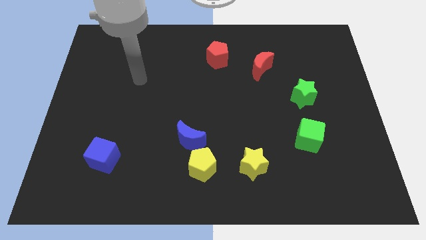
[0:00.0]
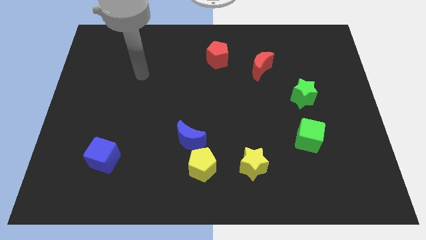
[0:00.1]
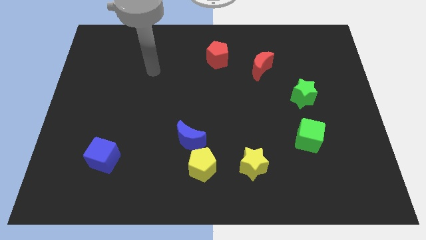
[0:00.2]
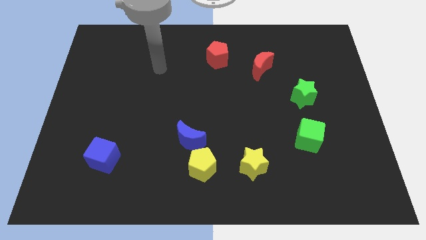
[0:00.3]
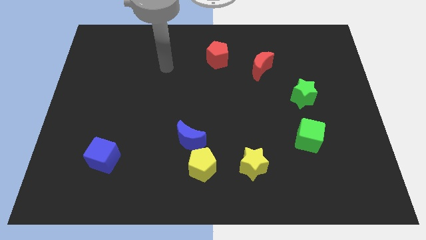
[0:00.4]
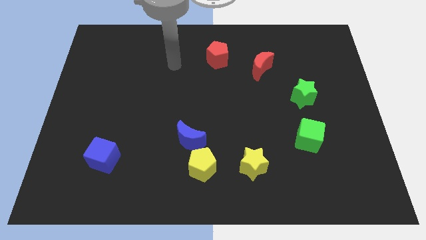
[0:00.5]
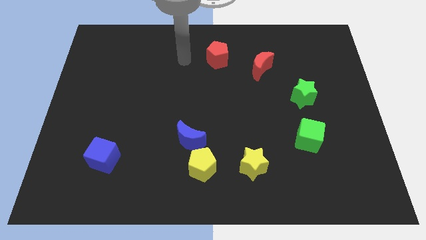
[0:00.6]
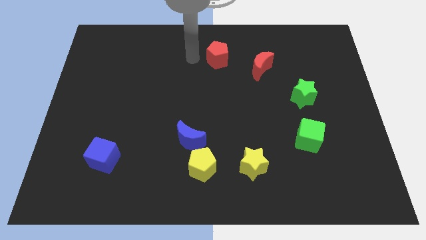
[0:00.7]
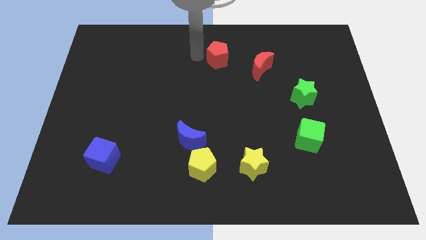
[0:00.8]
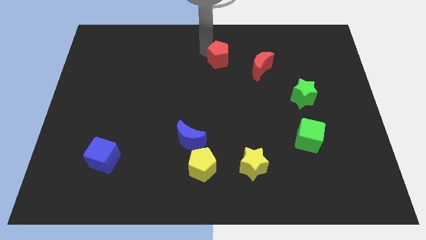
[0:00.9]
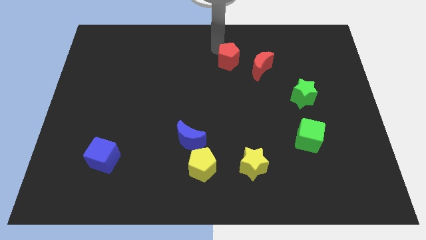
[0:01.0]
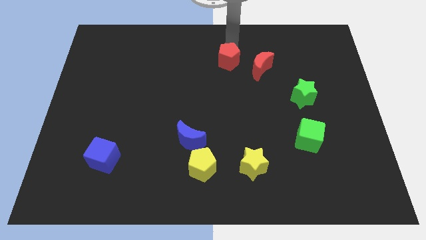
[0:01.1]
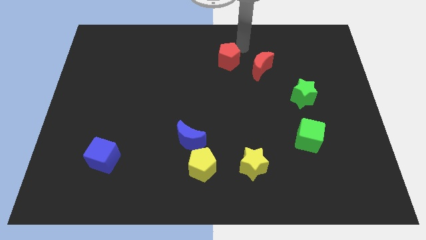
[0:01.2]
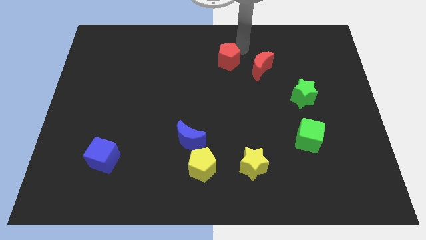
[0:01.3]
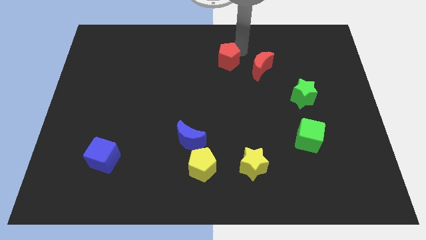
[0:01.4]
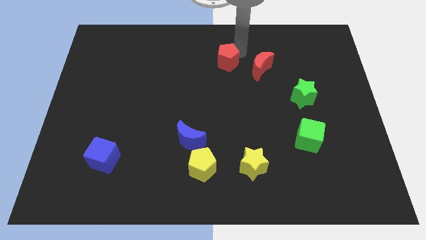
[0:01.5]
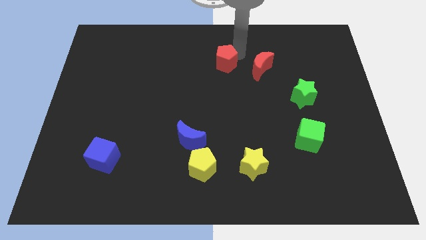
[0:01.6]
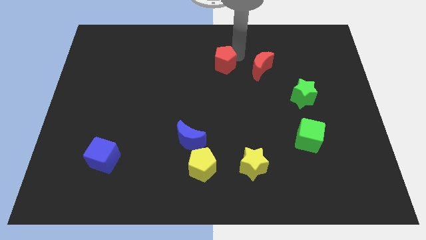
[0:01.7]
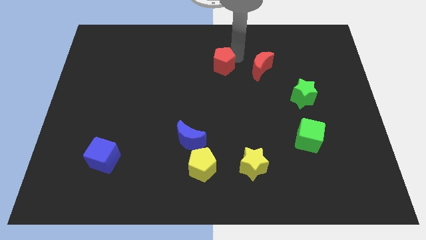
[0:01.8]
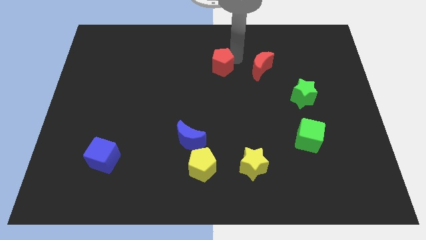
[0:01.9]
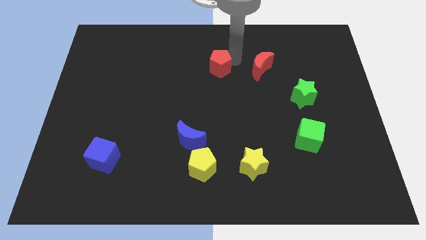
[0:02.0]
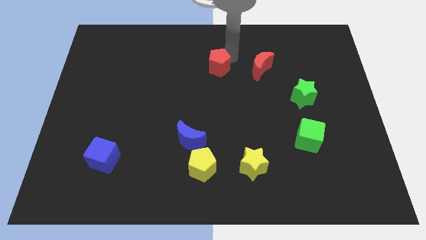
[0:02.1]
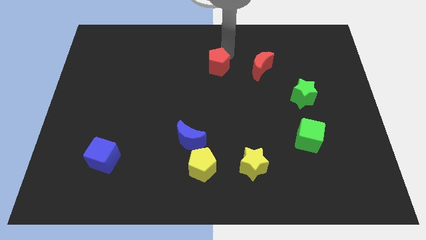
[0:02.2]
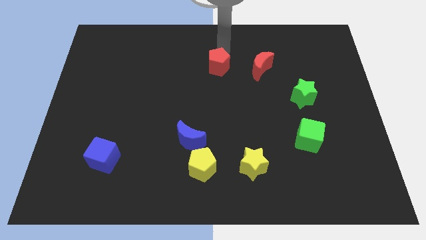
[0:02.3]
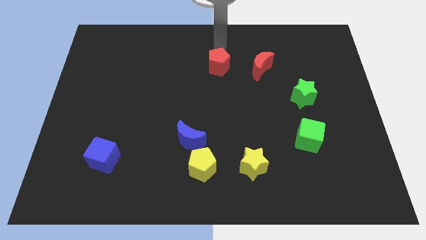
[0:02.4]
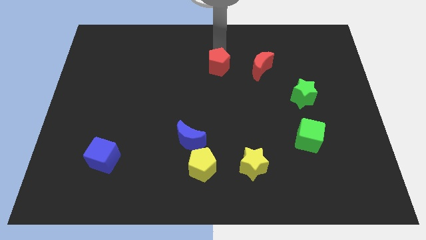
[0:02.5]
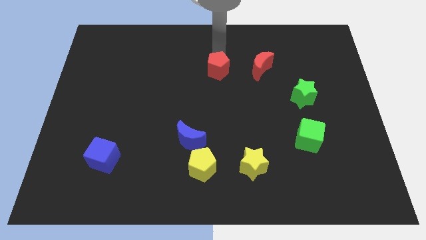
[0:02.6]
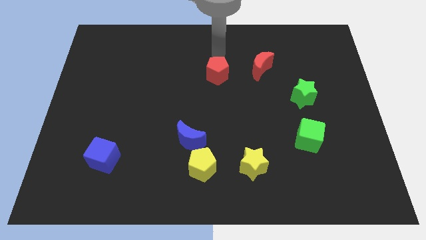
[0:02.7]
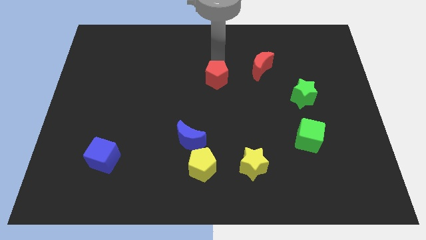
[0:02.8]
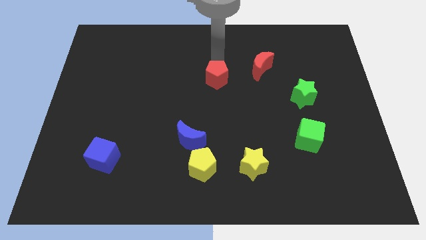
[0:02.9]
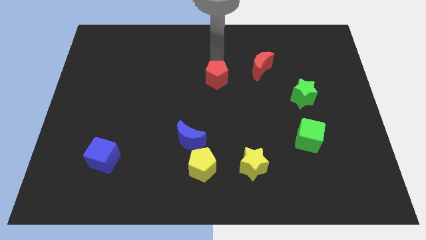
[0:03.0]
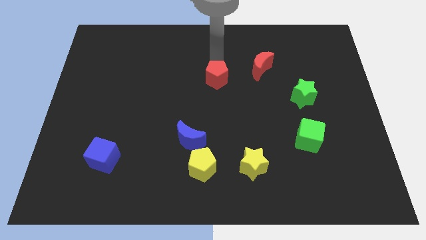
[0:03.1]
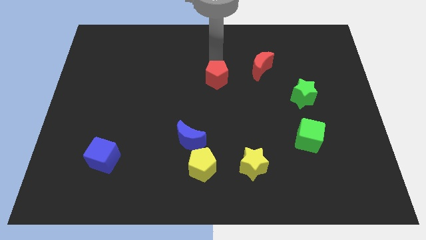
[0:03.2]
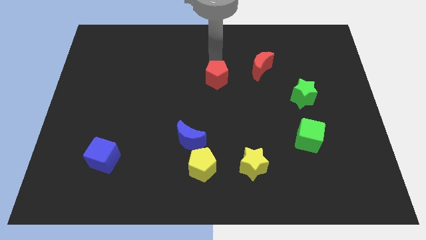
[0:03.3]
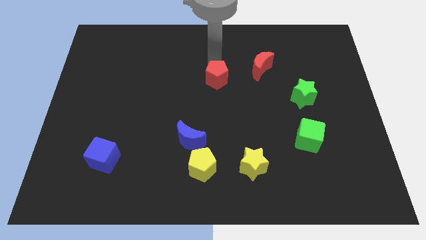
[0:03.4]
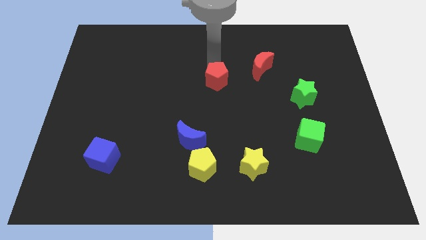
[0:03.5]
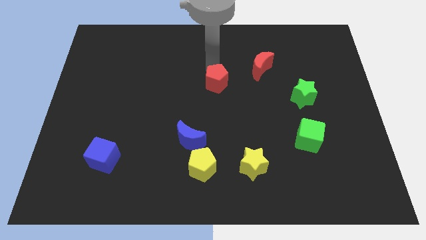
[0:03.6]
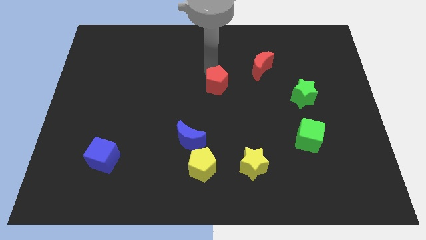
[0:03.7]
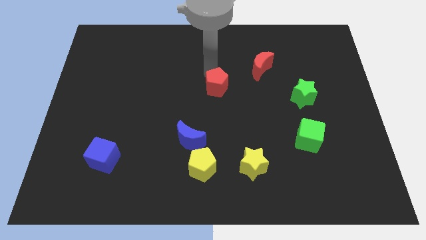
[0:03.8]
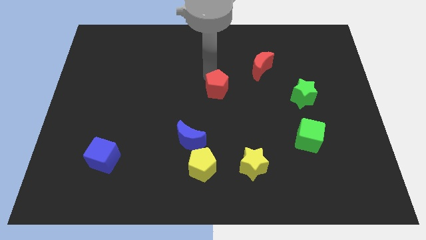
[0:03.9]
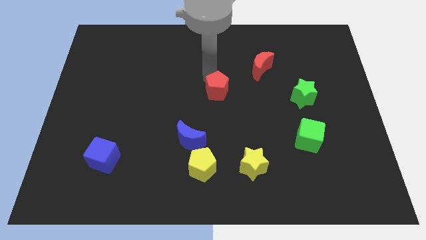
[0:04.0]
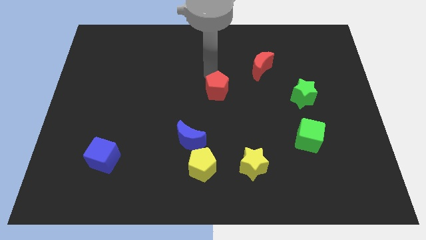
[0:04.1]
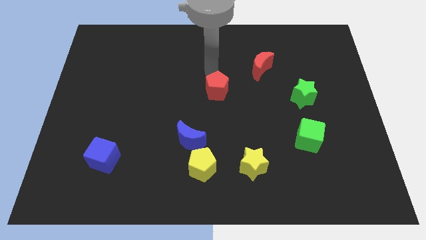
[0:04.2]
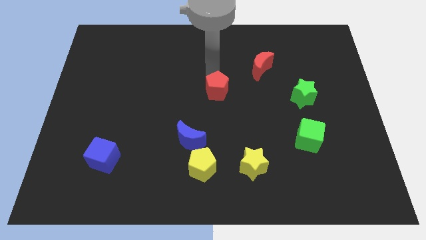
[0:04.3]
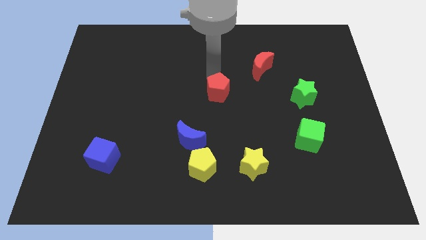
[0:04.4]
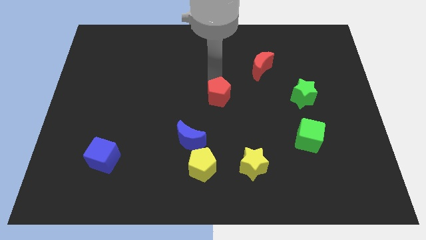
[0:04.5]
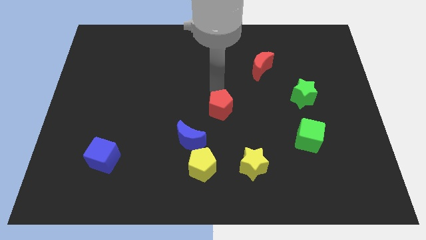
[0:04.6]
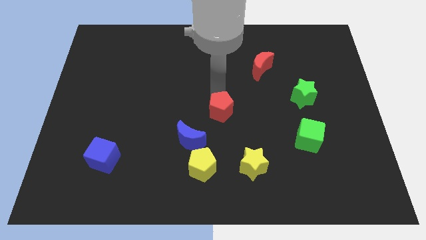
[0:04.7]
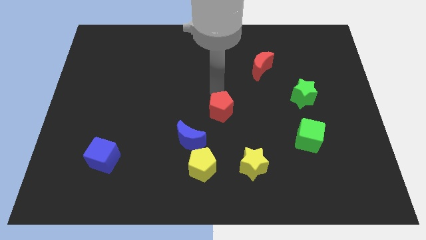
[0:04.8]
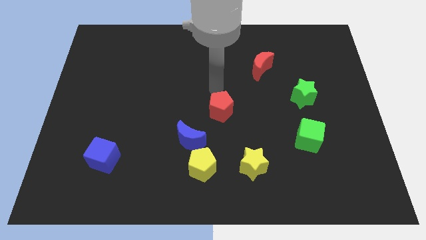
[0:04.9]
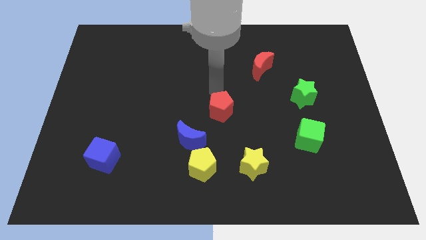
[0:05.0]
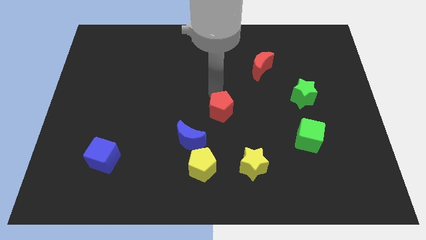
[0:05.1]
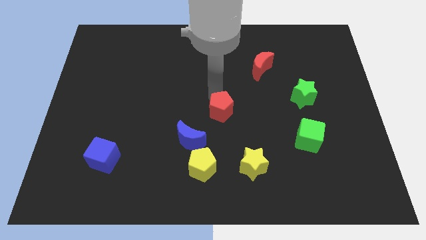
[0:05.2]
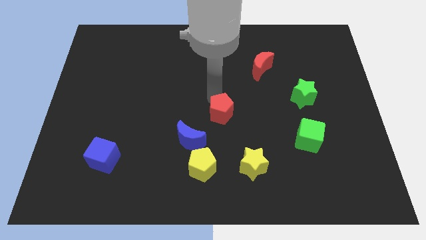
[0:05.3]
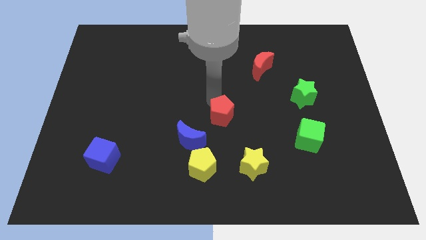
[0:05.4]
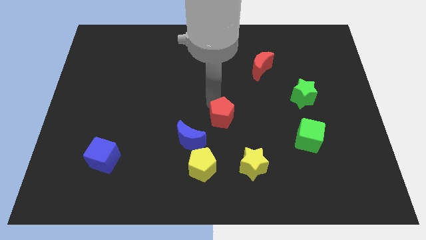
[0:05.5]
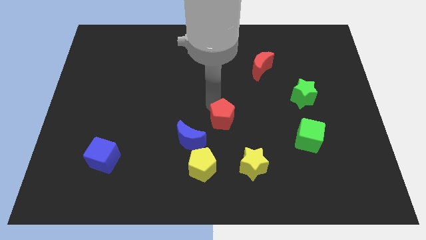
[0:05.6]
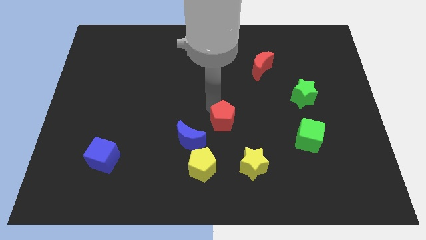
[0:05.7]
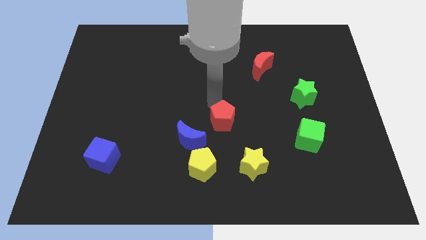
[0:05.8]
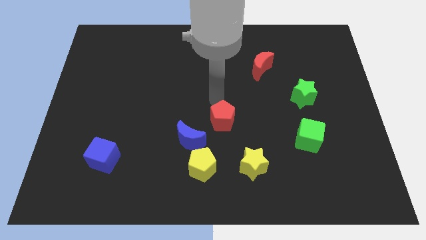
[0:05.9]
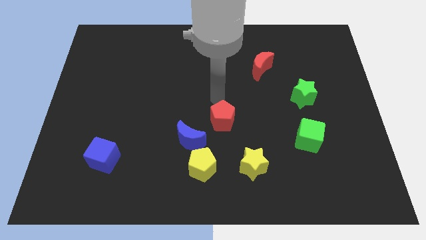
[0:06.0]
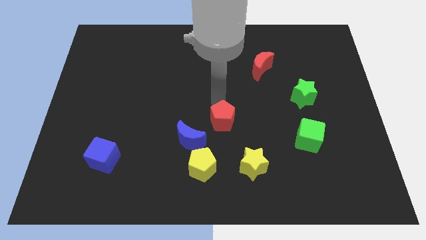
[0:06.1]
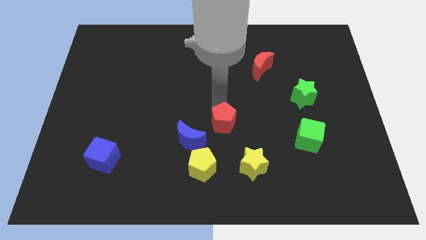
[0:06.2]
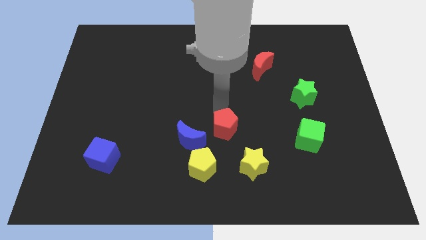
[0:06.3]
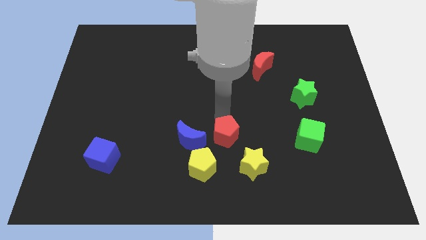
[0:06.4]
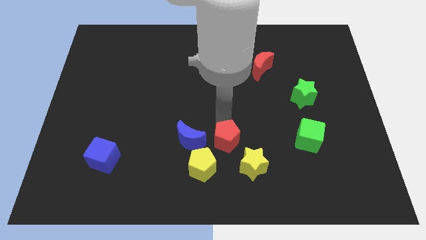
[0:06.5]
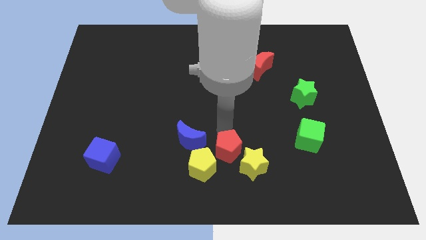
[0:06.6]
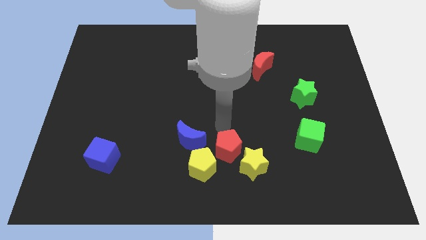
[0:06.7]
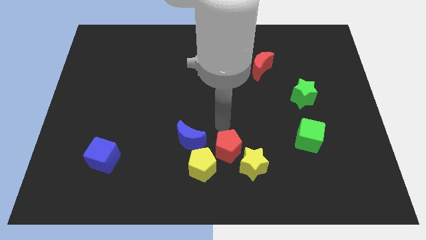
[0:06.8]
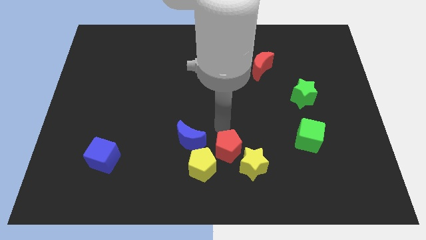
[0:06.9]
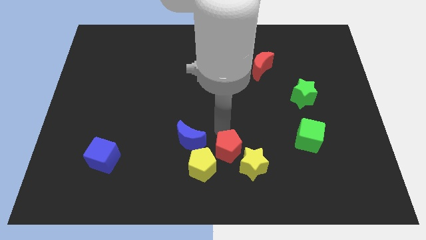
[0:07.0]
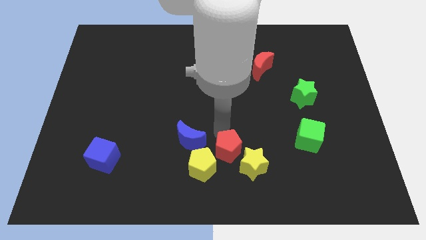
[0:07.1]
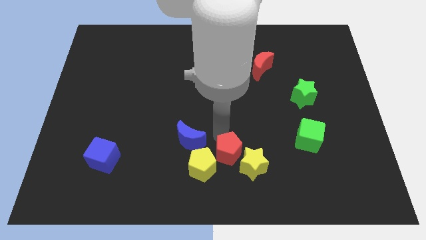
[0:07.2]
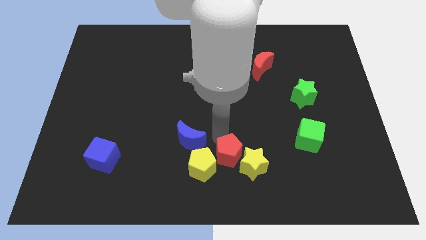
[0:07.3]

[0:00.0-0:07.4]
put the red pentagon to the bottom side
